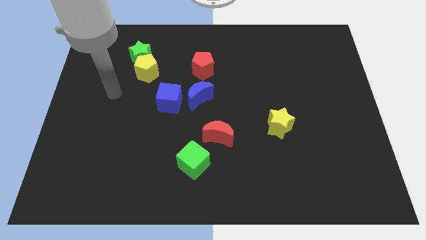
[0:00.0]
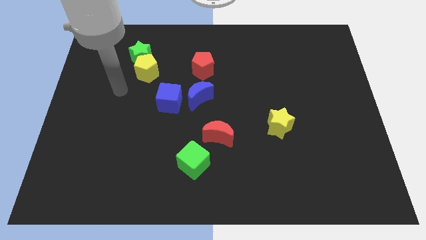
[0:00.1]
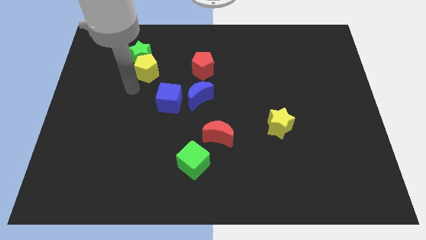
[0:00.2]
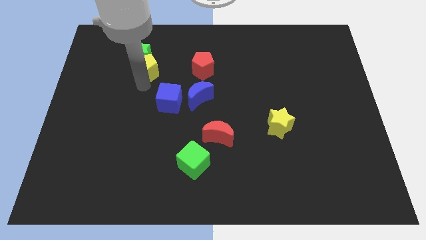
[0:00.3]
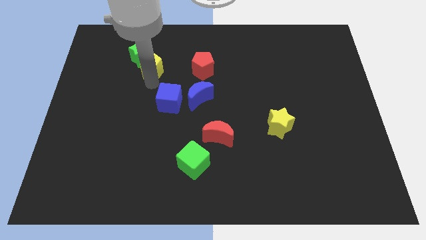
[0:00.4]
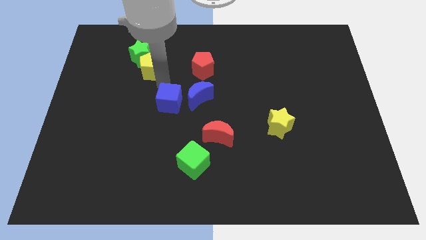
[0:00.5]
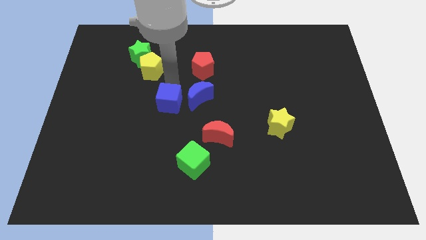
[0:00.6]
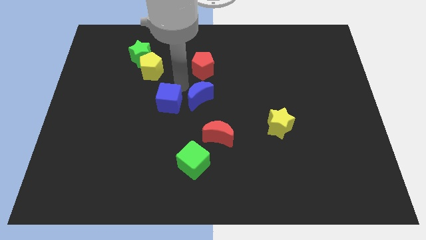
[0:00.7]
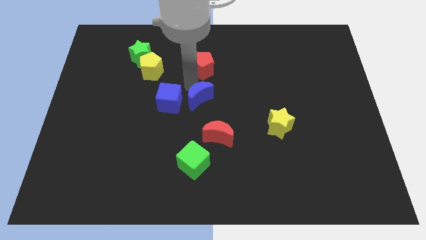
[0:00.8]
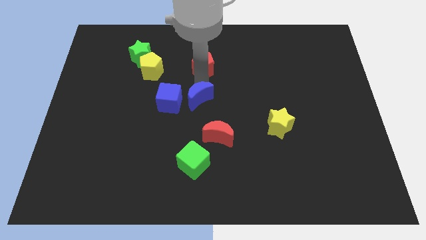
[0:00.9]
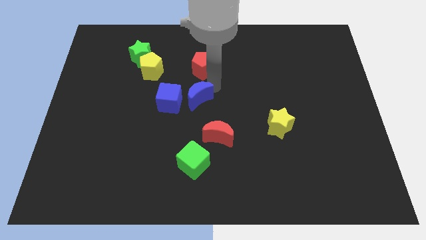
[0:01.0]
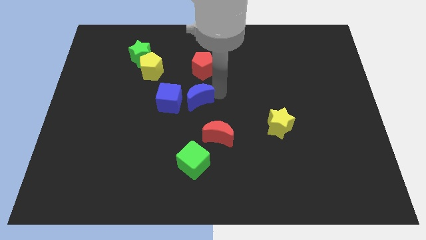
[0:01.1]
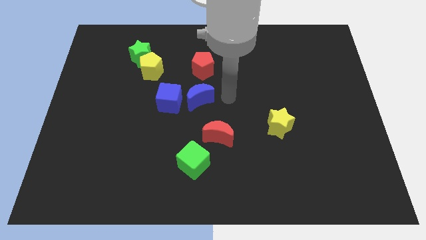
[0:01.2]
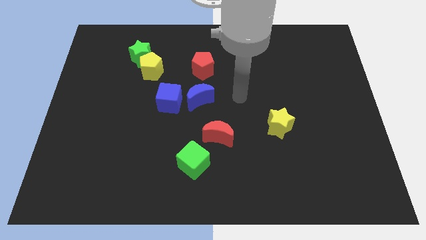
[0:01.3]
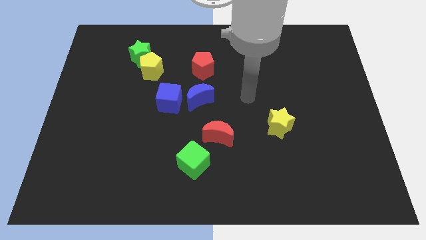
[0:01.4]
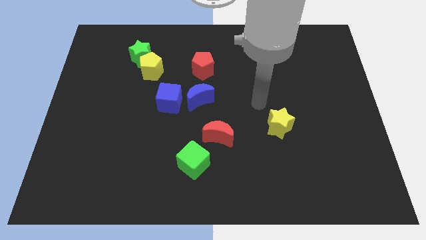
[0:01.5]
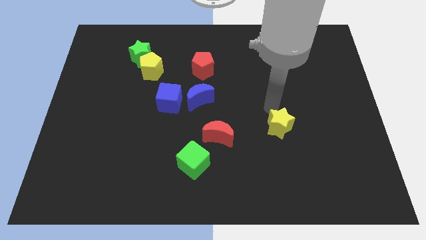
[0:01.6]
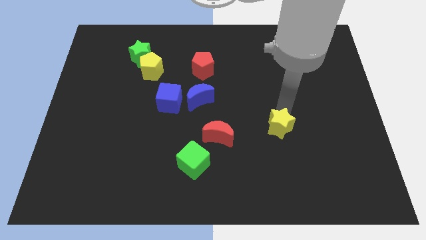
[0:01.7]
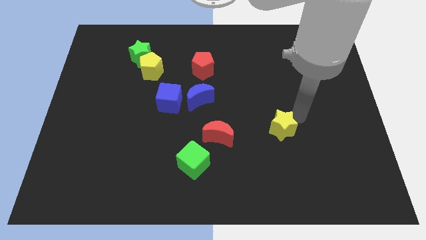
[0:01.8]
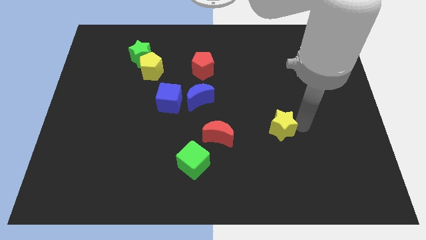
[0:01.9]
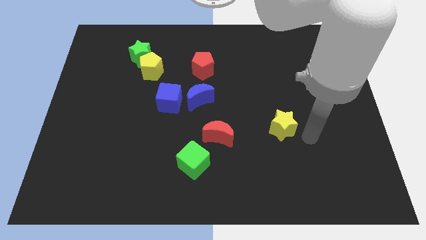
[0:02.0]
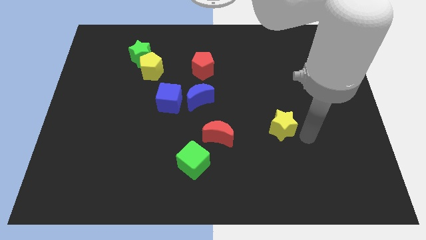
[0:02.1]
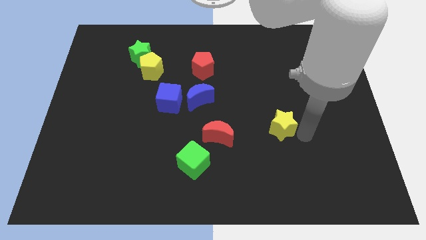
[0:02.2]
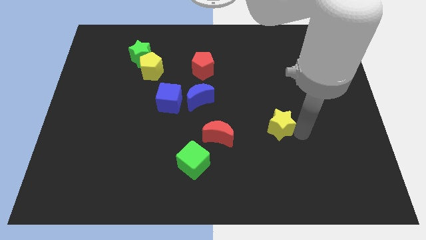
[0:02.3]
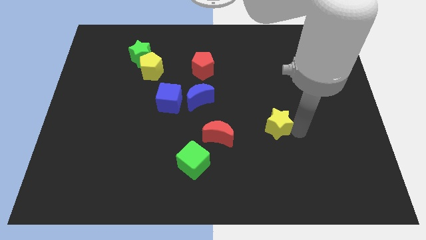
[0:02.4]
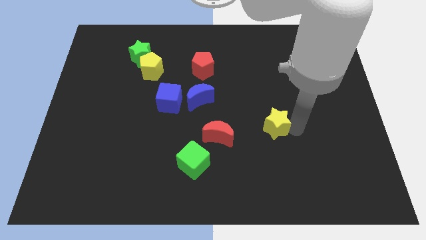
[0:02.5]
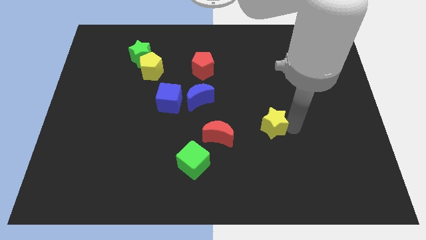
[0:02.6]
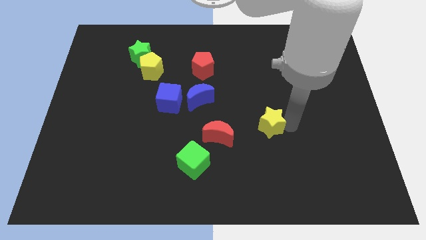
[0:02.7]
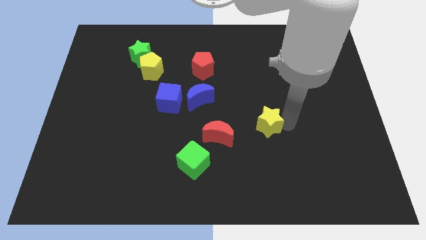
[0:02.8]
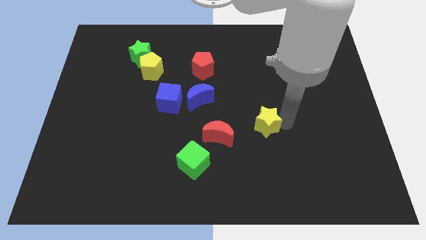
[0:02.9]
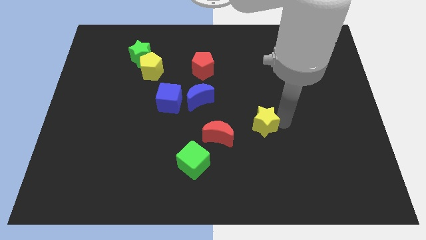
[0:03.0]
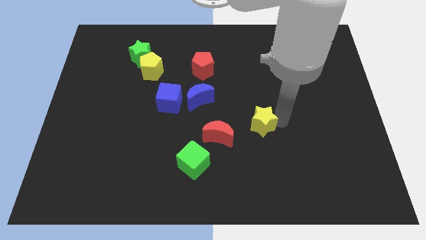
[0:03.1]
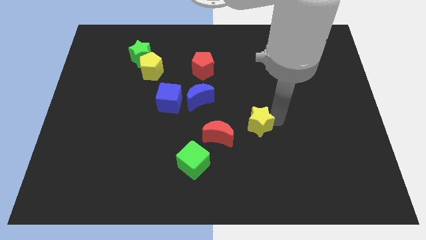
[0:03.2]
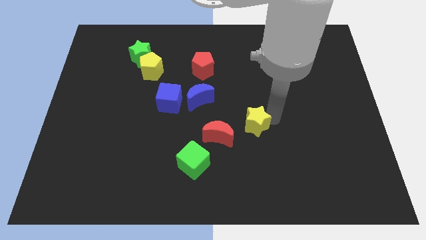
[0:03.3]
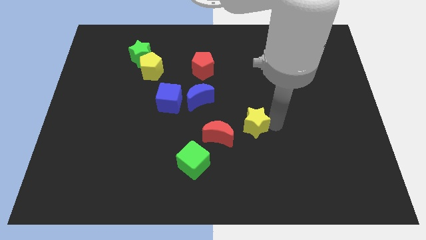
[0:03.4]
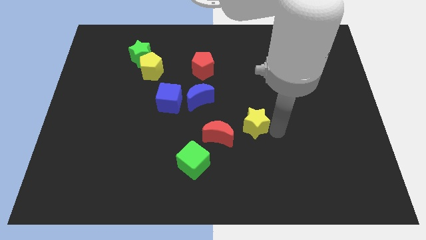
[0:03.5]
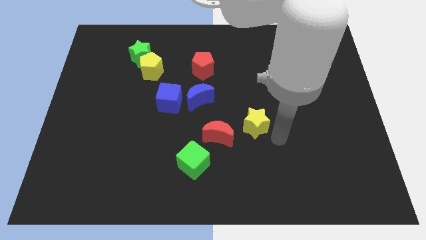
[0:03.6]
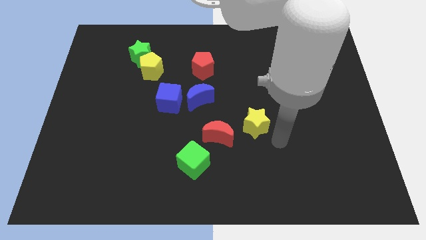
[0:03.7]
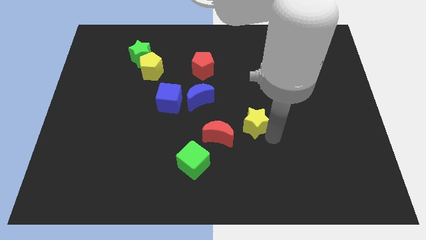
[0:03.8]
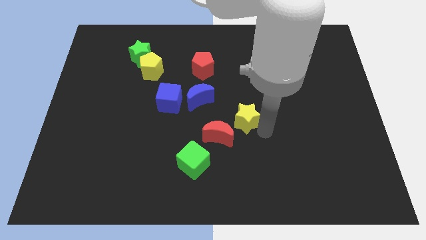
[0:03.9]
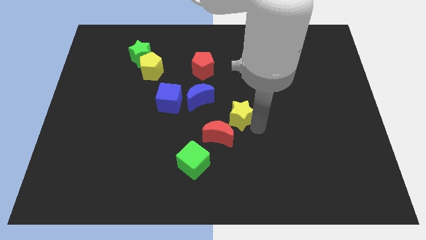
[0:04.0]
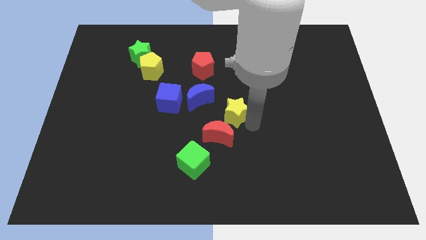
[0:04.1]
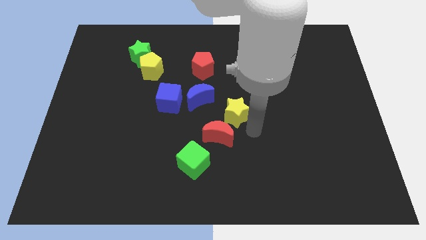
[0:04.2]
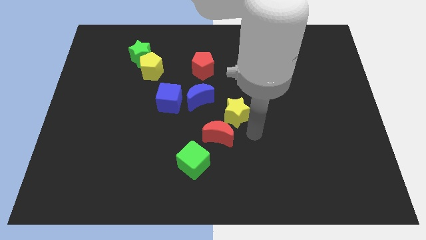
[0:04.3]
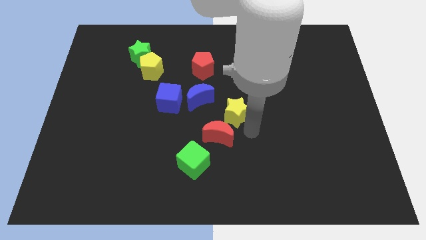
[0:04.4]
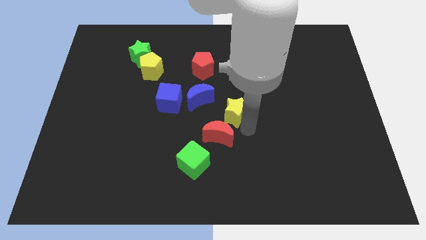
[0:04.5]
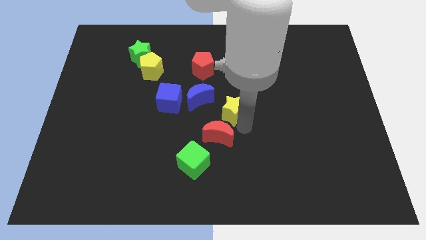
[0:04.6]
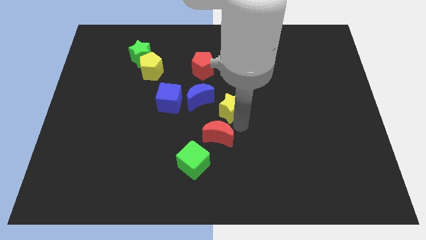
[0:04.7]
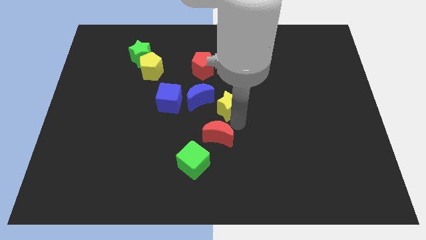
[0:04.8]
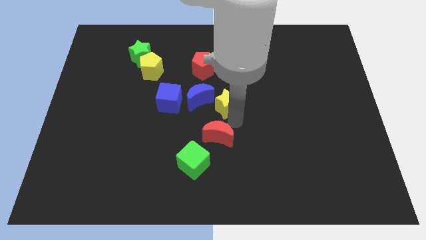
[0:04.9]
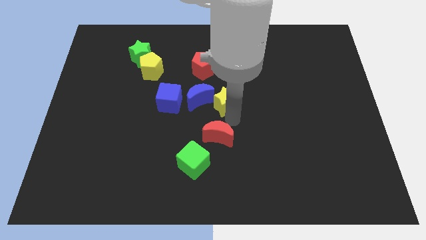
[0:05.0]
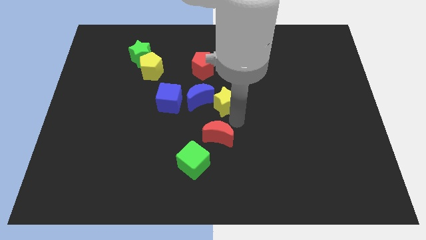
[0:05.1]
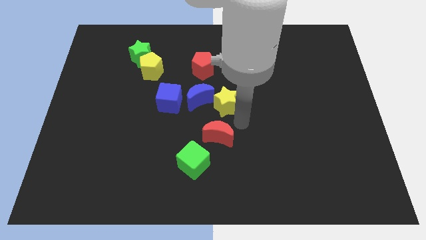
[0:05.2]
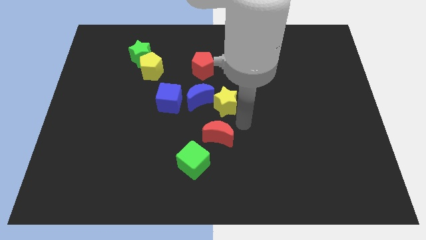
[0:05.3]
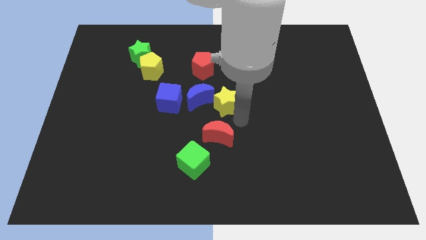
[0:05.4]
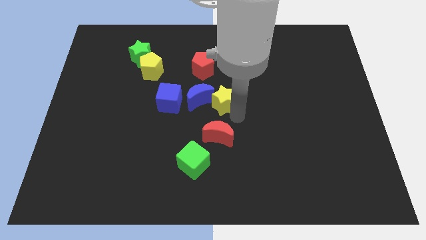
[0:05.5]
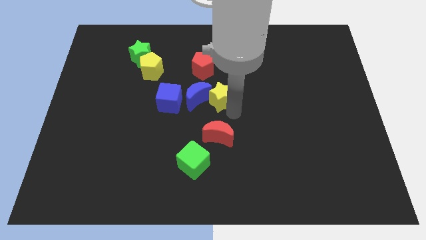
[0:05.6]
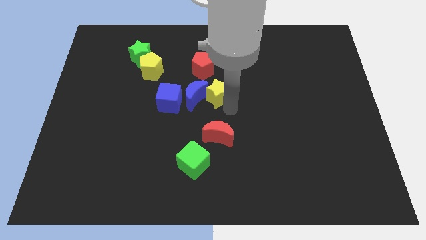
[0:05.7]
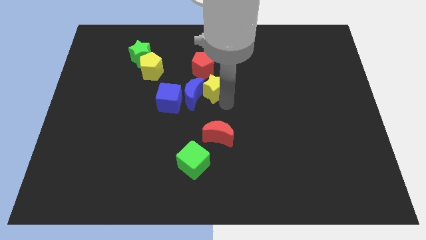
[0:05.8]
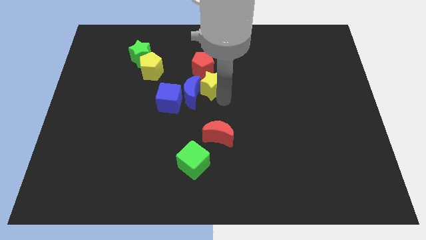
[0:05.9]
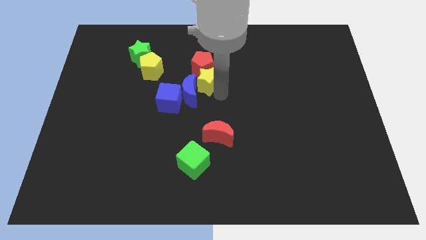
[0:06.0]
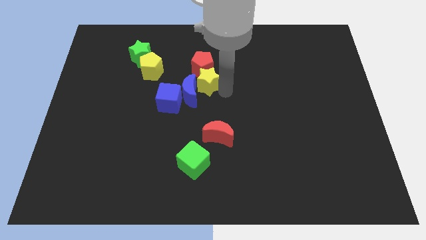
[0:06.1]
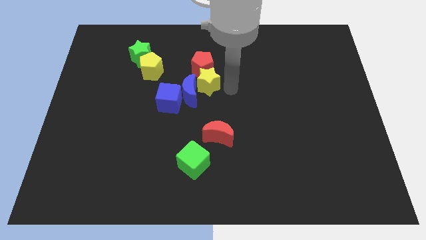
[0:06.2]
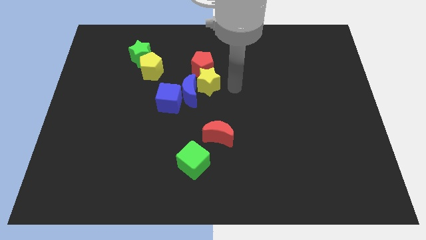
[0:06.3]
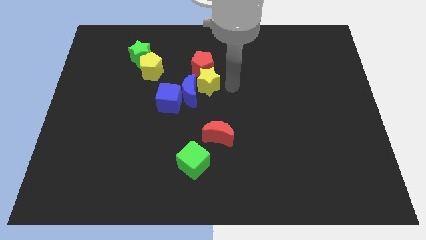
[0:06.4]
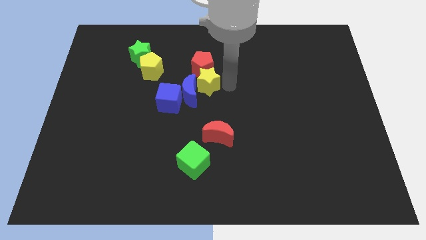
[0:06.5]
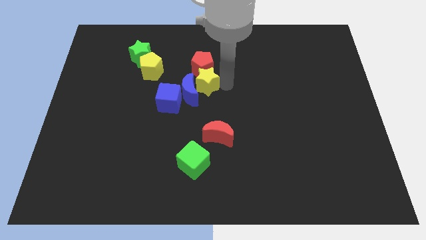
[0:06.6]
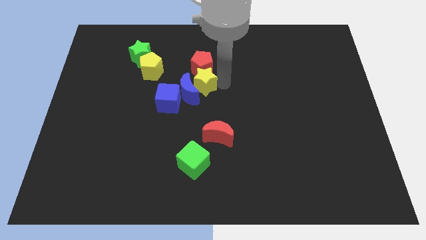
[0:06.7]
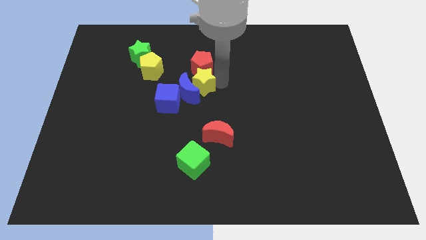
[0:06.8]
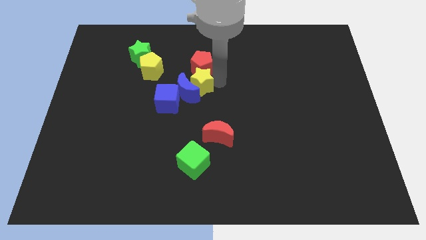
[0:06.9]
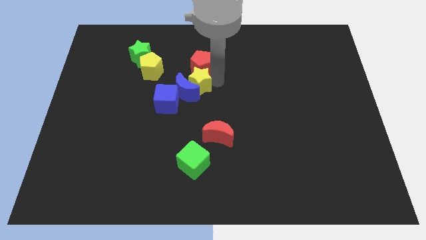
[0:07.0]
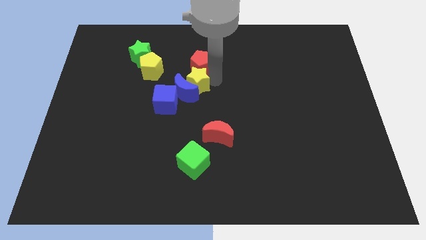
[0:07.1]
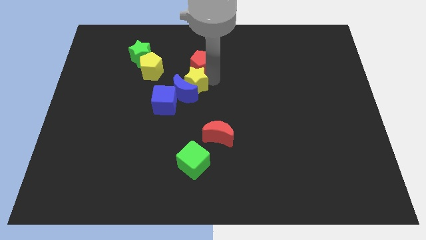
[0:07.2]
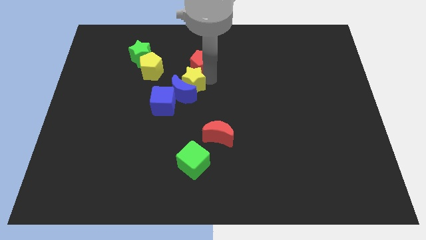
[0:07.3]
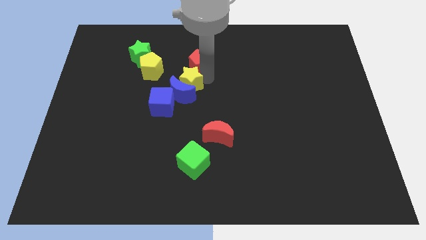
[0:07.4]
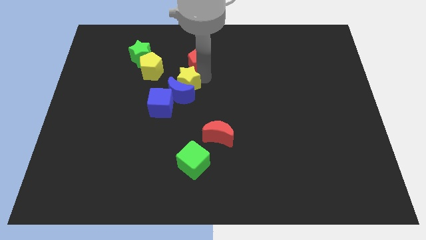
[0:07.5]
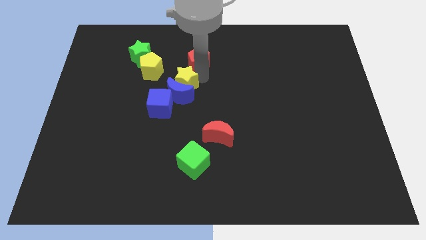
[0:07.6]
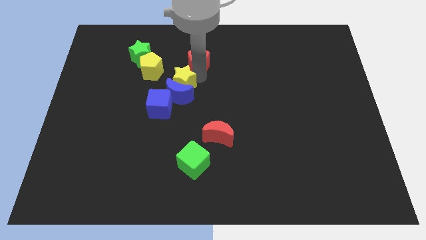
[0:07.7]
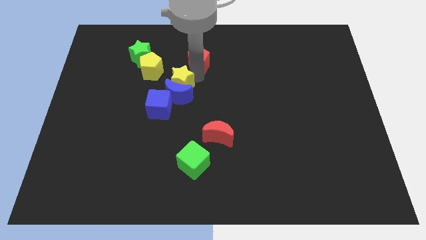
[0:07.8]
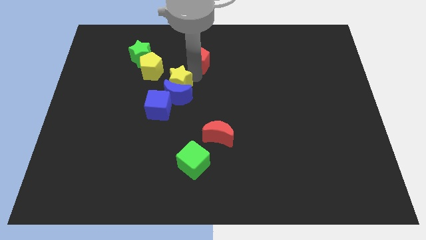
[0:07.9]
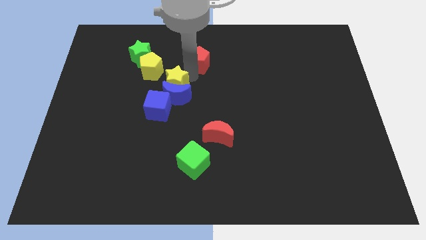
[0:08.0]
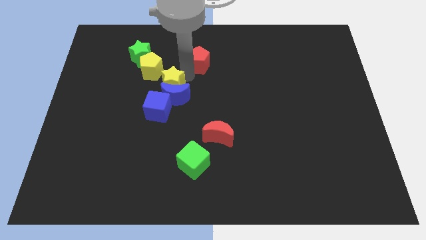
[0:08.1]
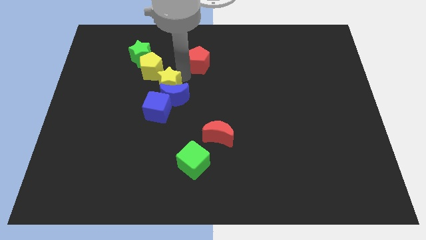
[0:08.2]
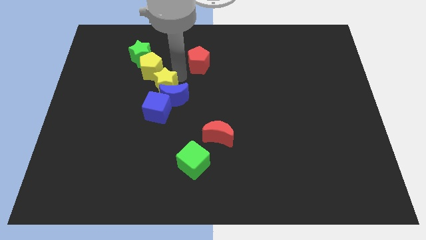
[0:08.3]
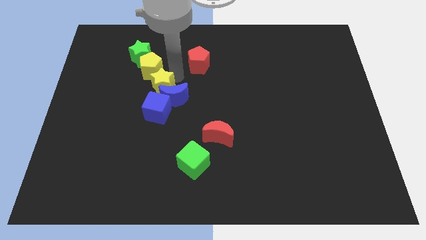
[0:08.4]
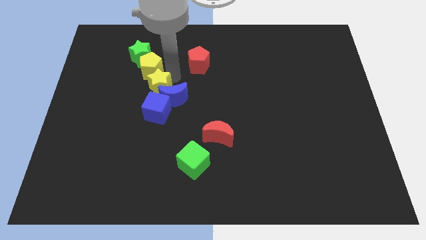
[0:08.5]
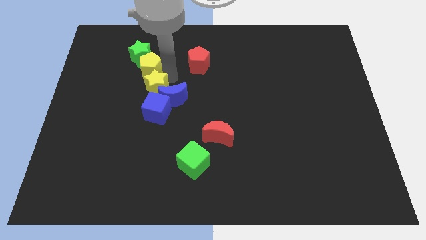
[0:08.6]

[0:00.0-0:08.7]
move the yellow star to the top left of the blue cube
